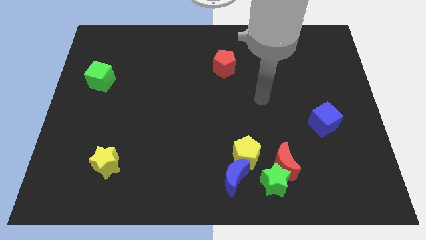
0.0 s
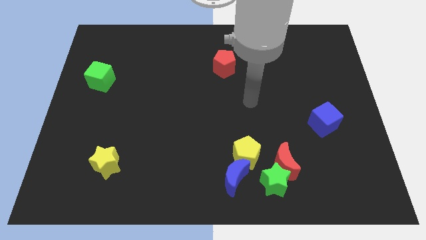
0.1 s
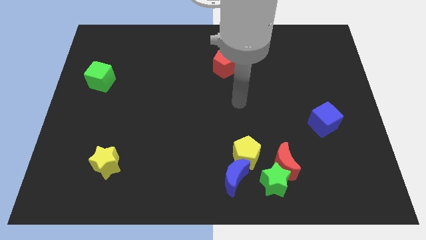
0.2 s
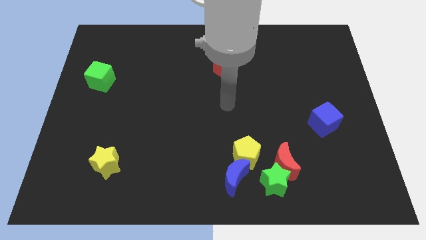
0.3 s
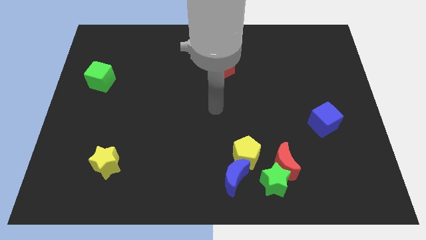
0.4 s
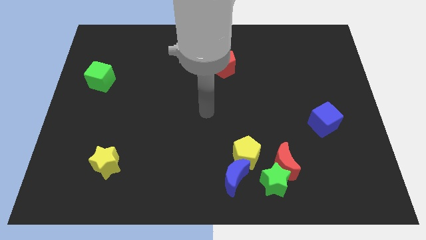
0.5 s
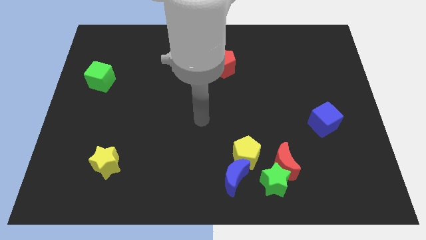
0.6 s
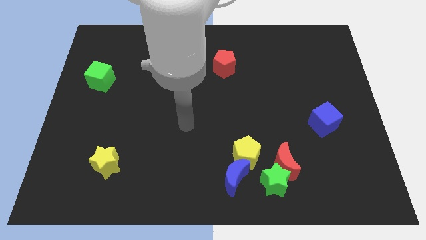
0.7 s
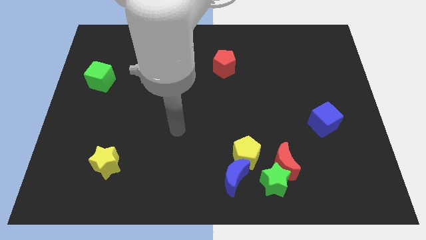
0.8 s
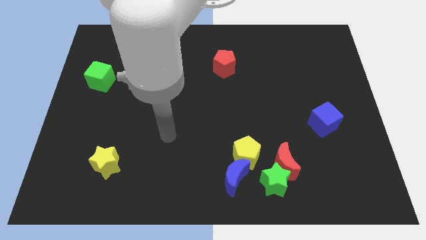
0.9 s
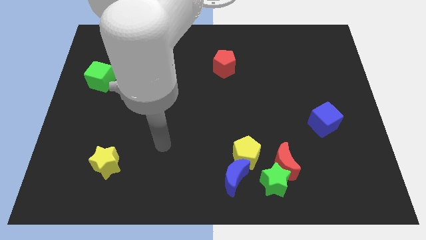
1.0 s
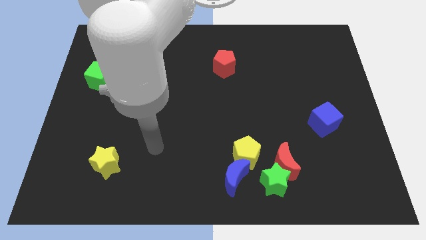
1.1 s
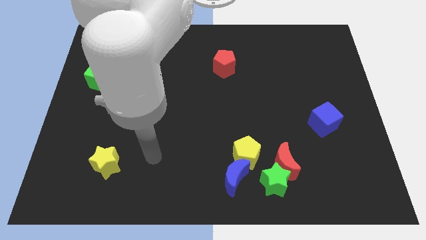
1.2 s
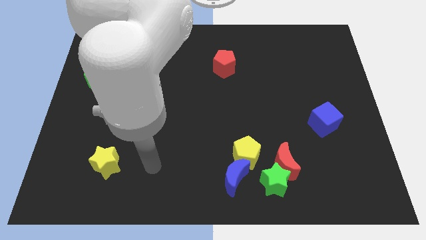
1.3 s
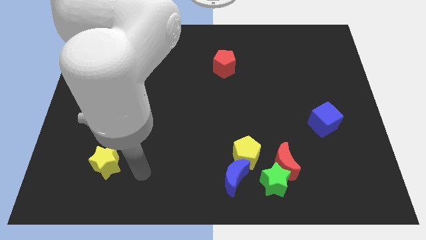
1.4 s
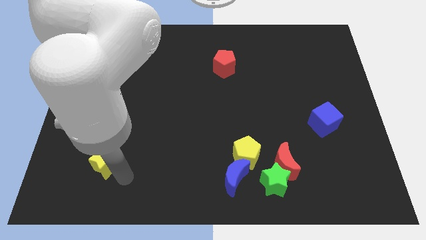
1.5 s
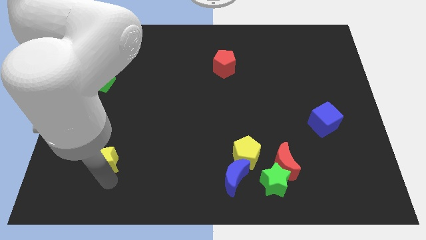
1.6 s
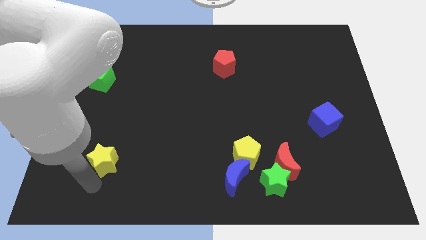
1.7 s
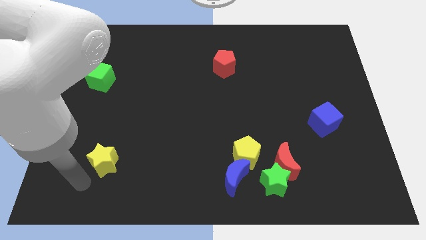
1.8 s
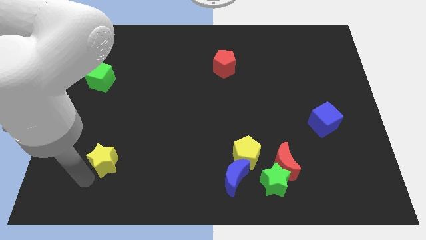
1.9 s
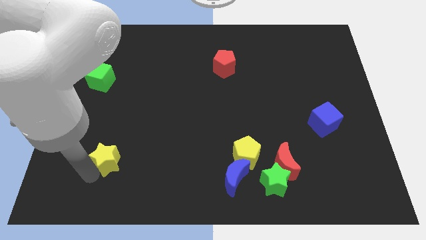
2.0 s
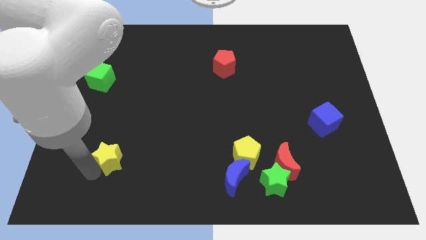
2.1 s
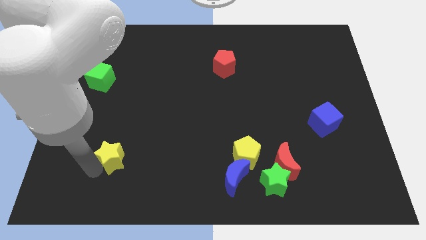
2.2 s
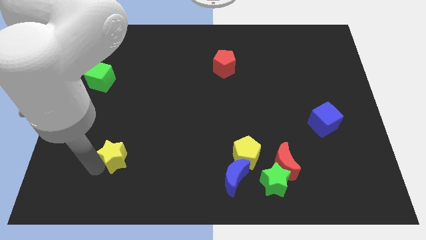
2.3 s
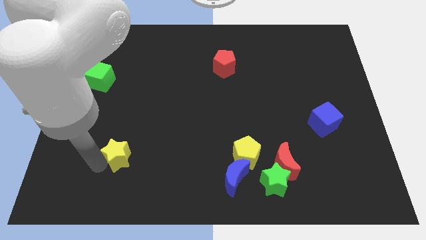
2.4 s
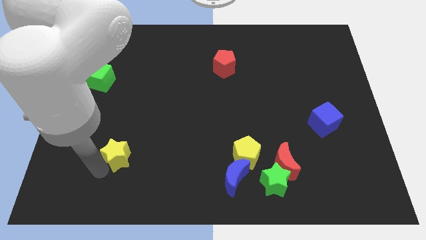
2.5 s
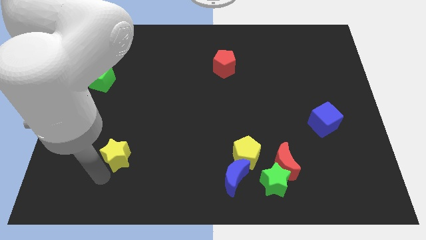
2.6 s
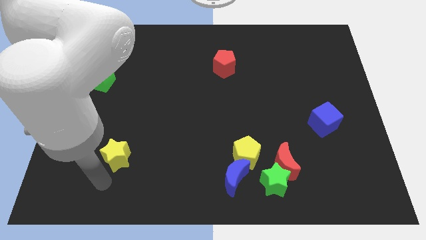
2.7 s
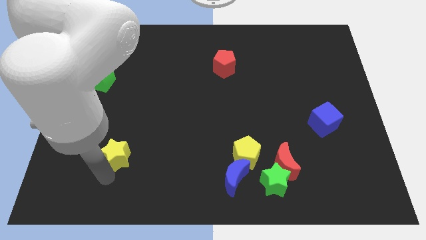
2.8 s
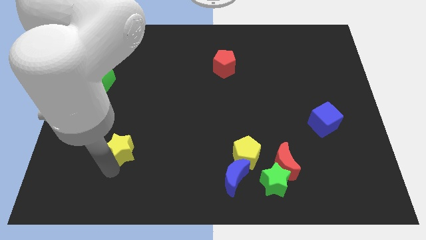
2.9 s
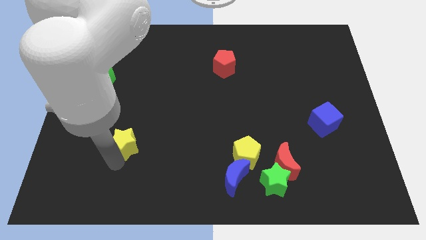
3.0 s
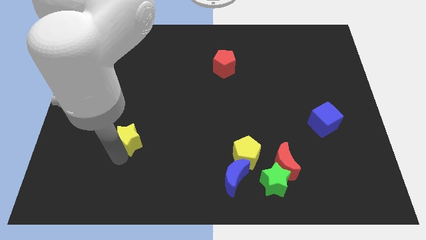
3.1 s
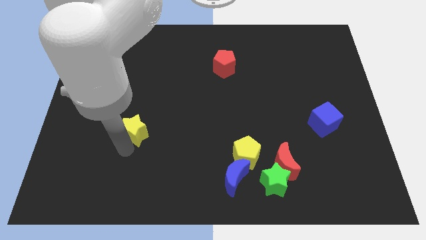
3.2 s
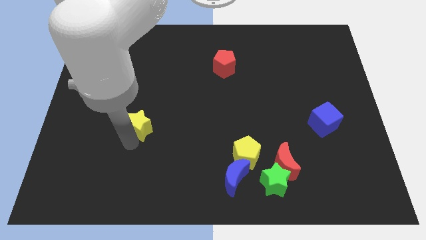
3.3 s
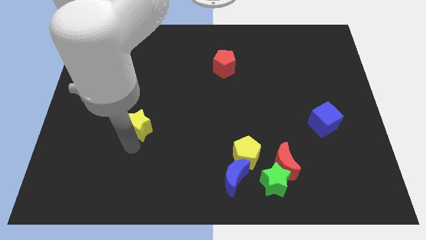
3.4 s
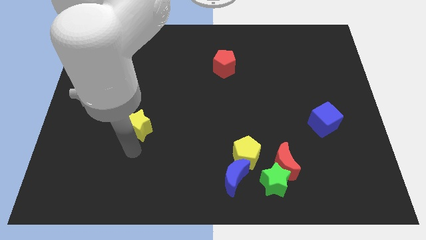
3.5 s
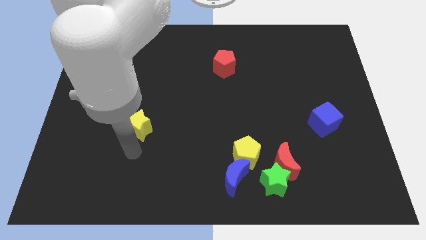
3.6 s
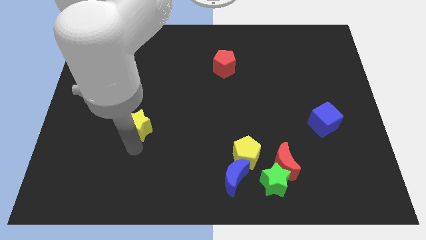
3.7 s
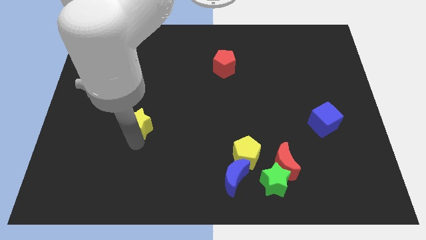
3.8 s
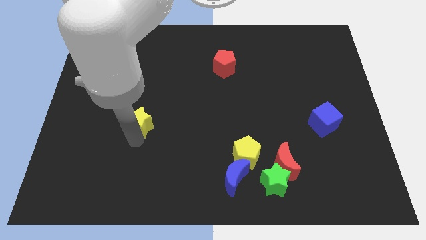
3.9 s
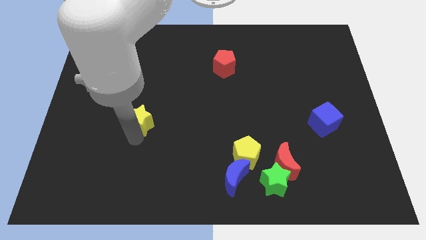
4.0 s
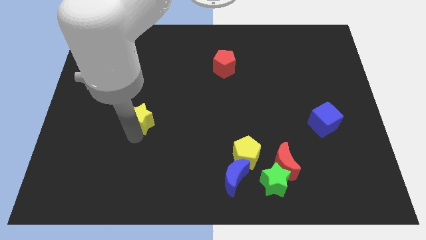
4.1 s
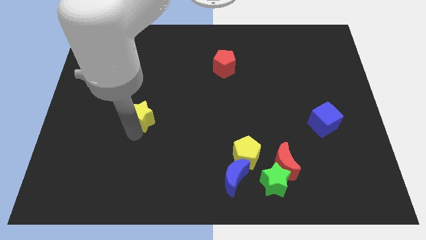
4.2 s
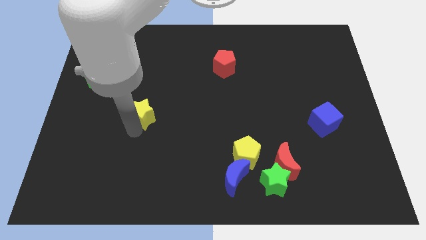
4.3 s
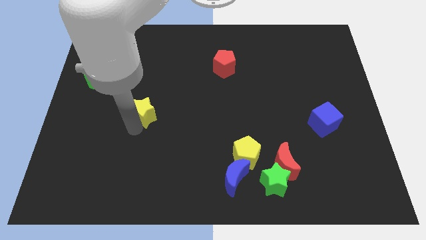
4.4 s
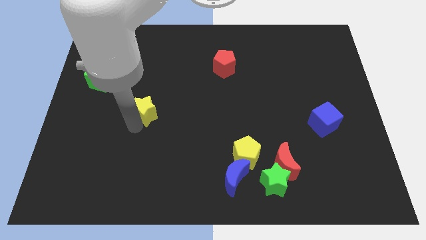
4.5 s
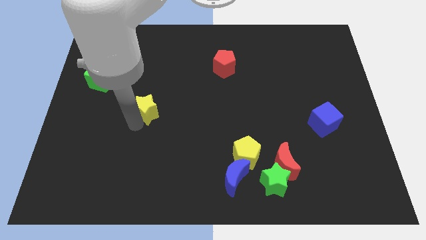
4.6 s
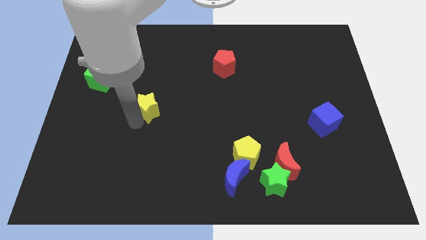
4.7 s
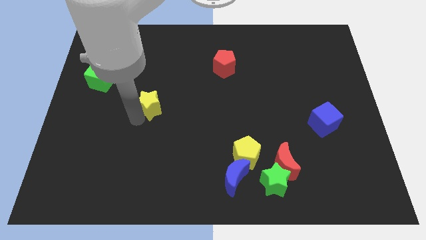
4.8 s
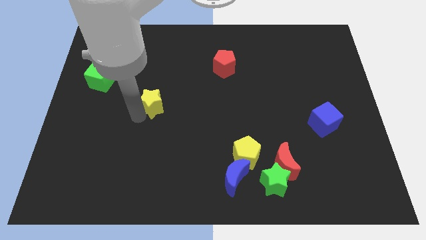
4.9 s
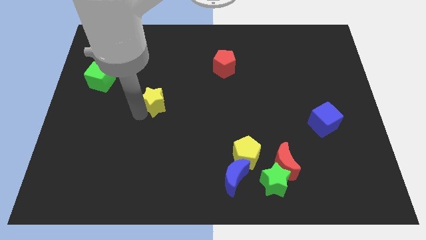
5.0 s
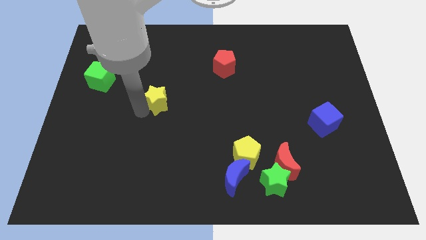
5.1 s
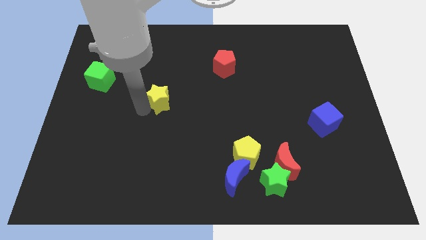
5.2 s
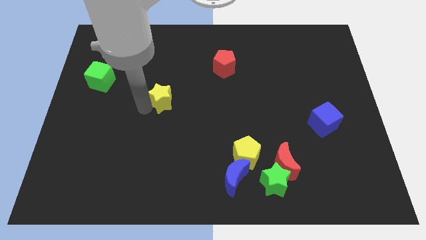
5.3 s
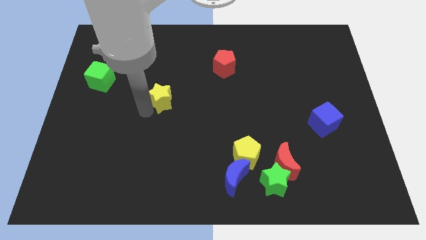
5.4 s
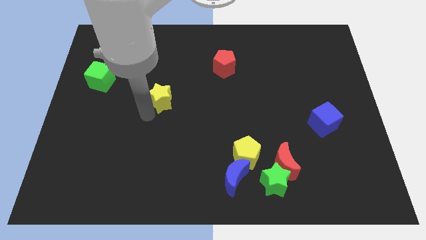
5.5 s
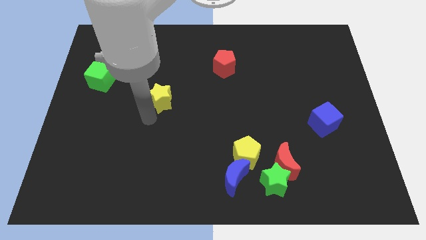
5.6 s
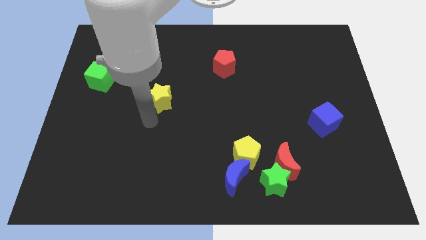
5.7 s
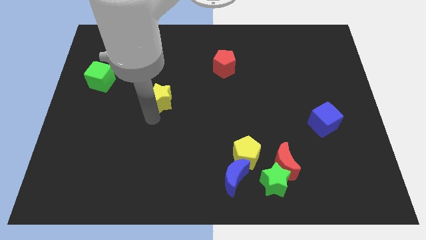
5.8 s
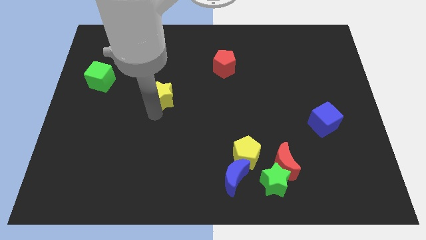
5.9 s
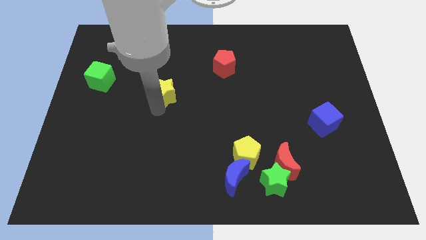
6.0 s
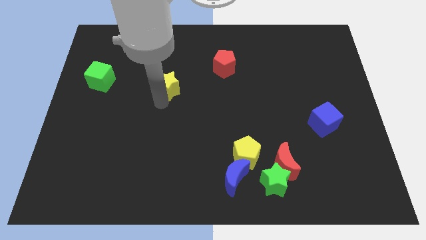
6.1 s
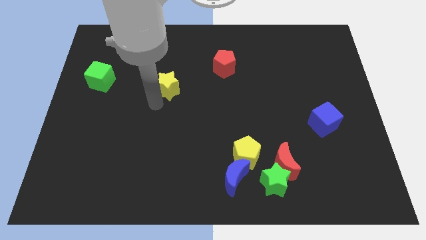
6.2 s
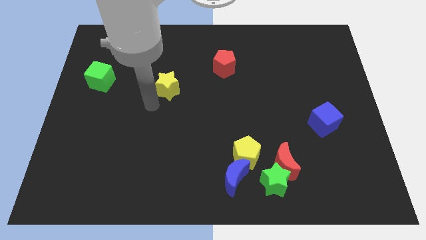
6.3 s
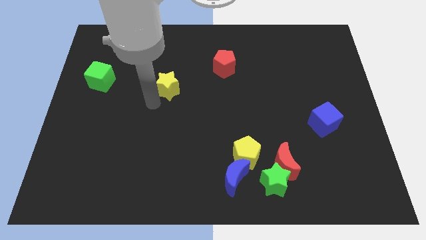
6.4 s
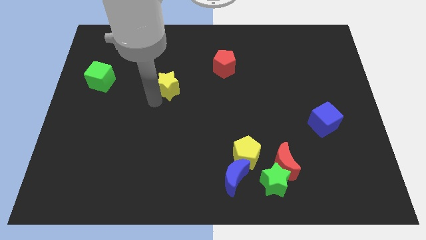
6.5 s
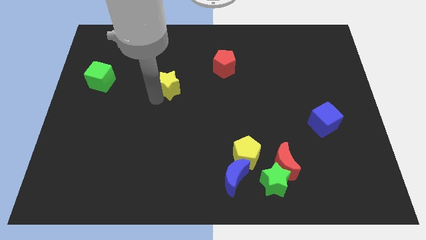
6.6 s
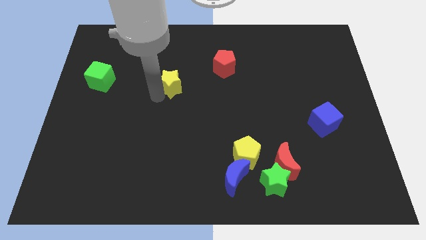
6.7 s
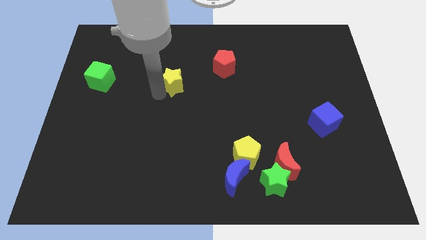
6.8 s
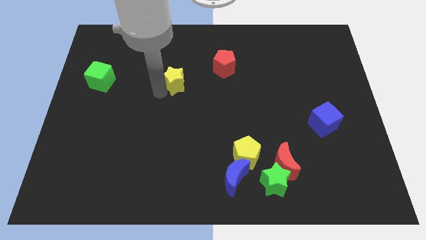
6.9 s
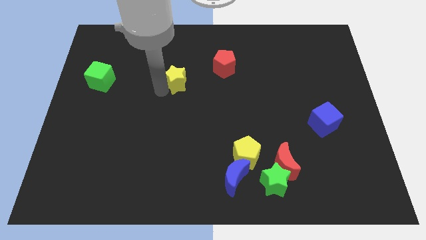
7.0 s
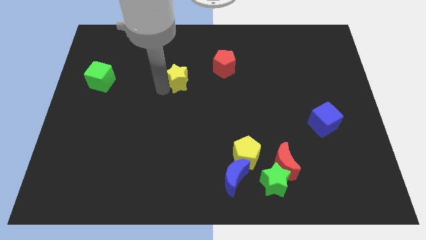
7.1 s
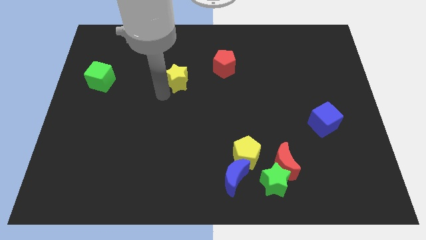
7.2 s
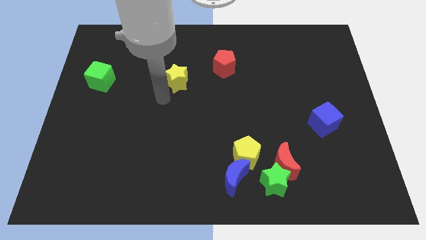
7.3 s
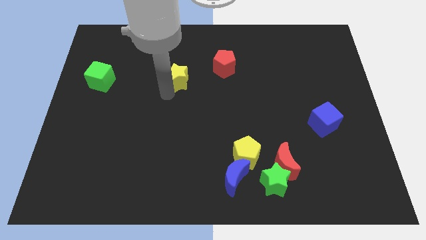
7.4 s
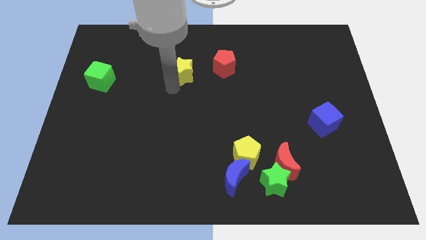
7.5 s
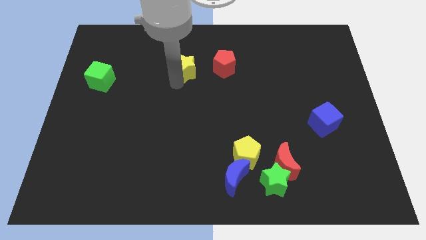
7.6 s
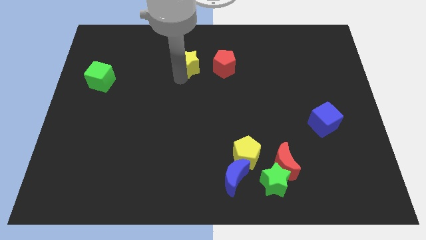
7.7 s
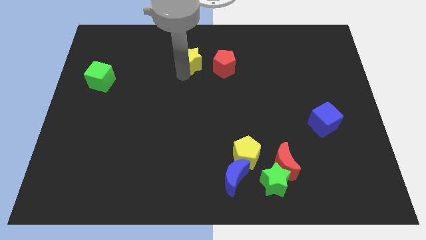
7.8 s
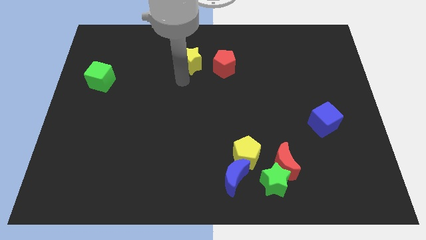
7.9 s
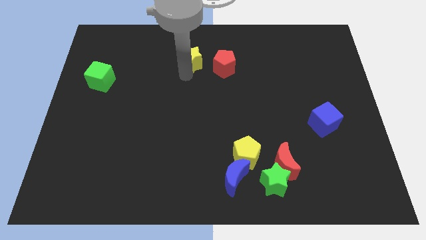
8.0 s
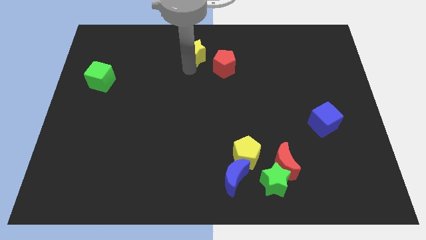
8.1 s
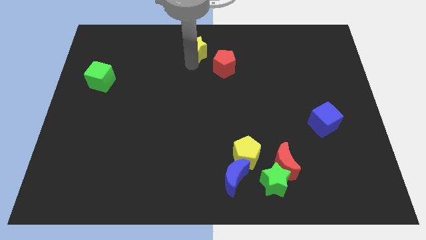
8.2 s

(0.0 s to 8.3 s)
put the yellow star to the towards your base
